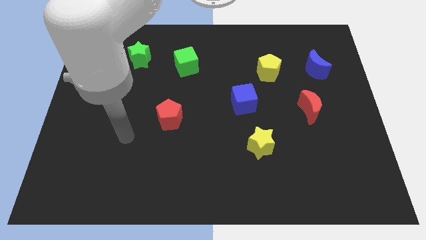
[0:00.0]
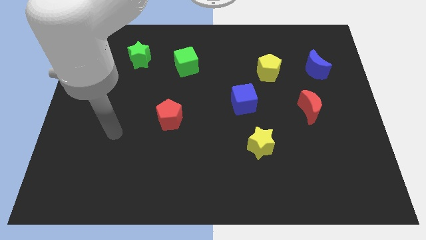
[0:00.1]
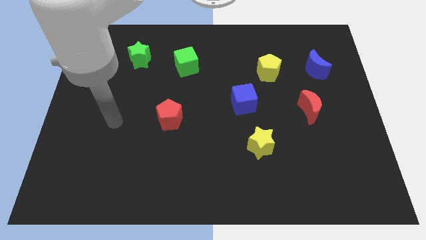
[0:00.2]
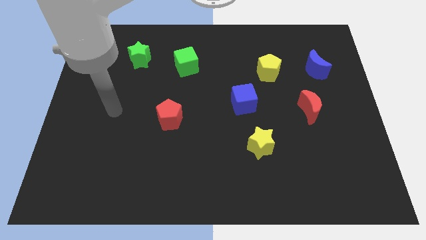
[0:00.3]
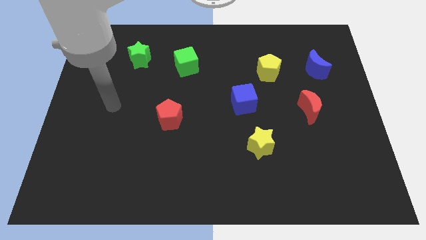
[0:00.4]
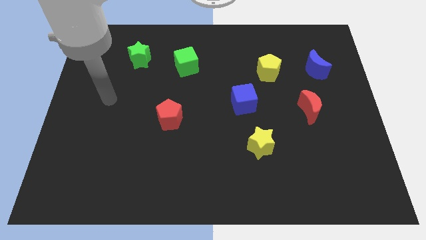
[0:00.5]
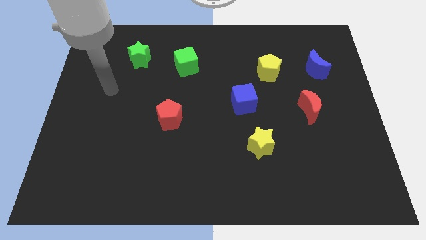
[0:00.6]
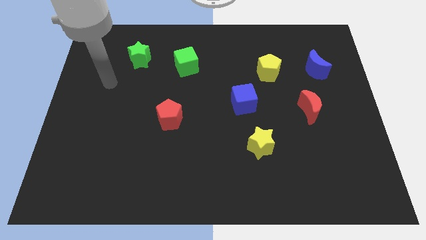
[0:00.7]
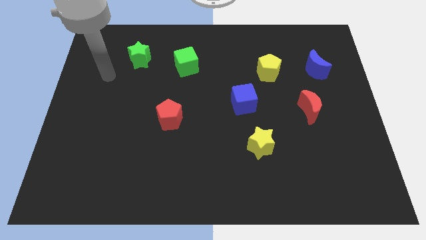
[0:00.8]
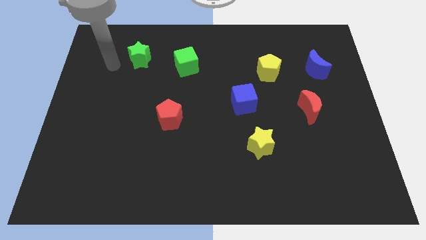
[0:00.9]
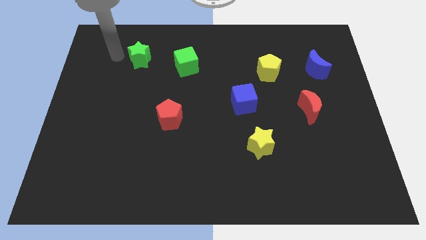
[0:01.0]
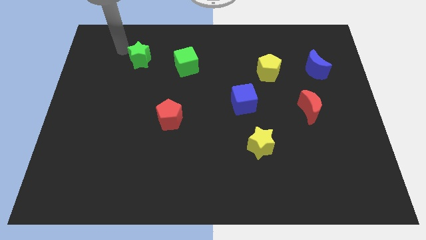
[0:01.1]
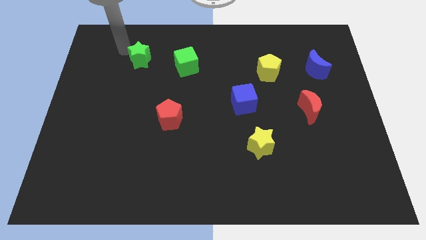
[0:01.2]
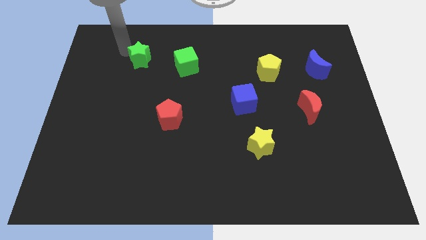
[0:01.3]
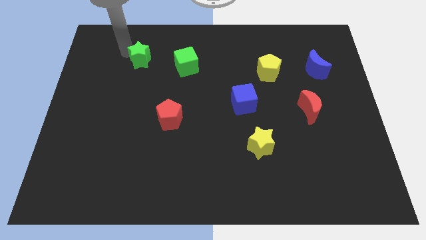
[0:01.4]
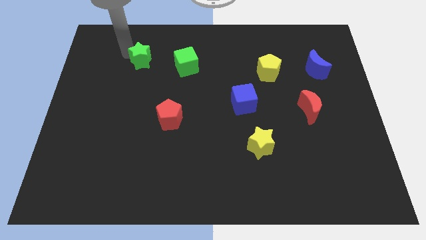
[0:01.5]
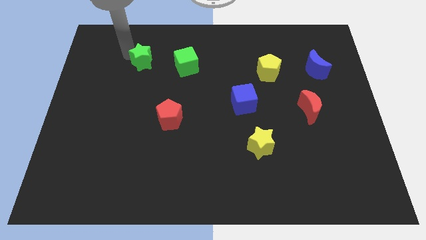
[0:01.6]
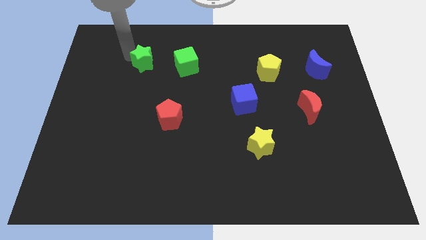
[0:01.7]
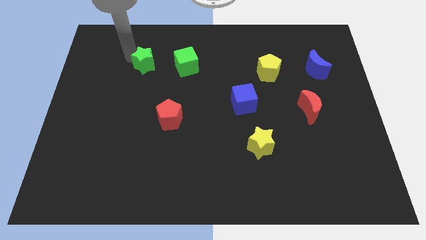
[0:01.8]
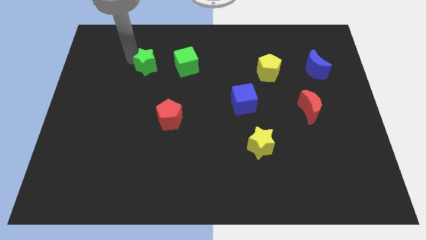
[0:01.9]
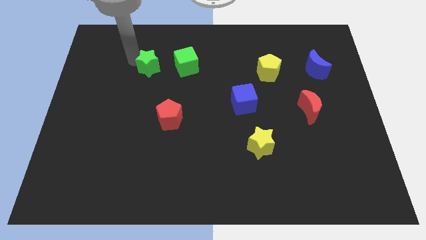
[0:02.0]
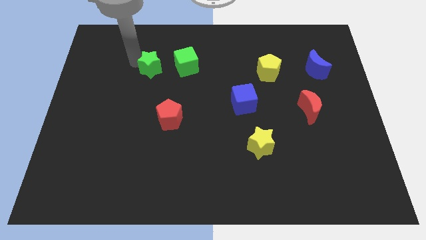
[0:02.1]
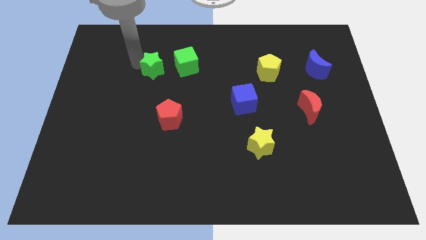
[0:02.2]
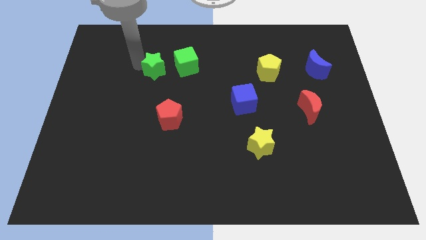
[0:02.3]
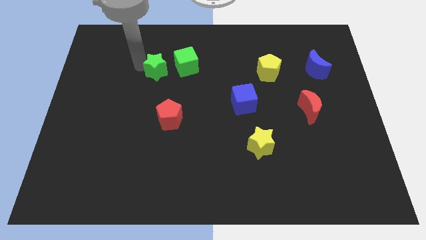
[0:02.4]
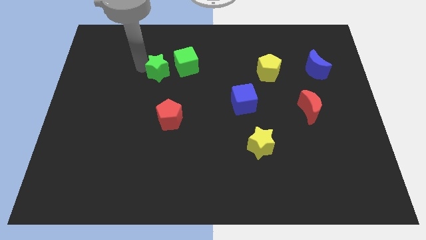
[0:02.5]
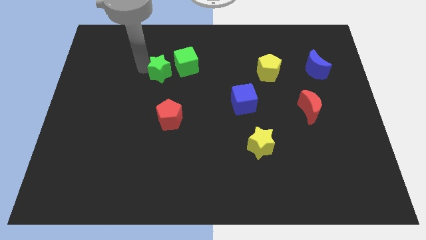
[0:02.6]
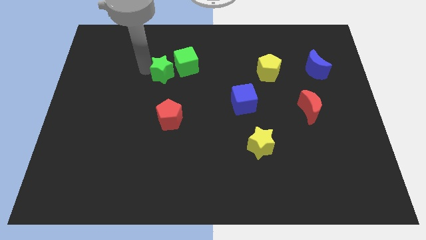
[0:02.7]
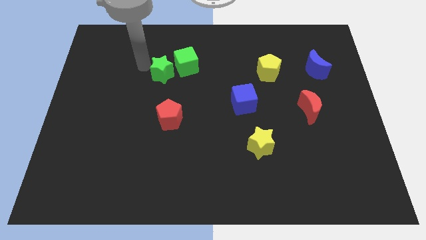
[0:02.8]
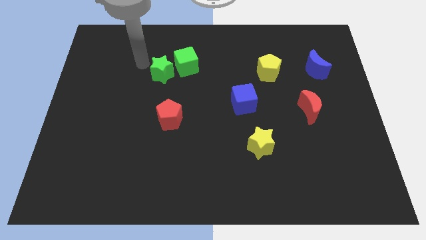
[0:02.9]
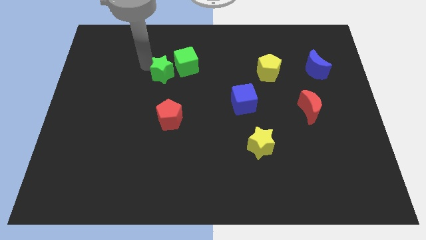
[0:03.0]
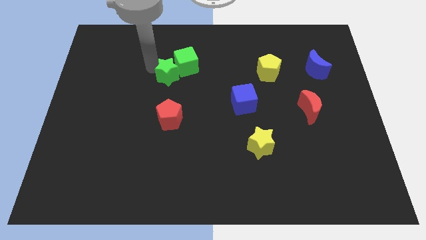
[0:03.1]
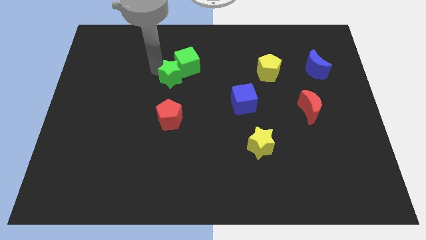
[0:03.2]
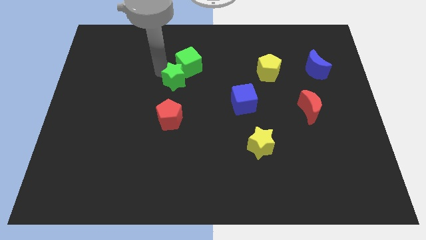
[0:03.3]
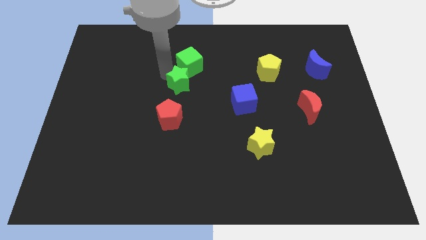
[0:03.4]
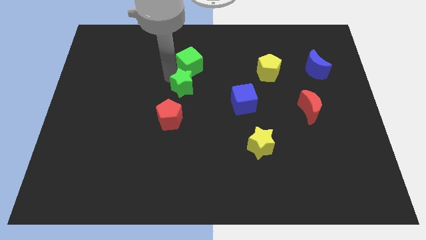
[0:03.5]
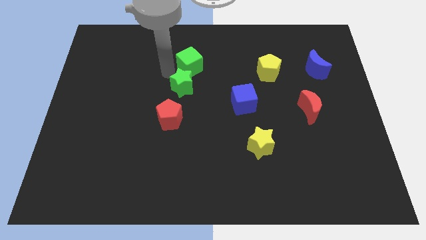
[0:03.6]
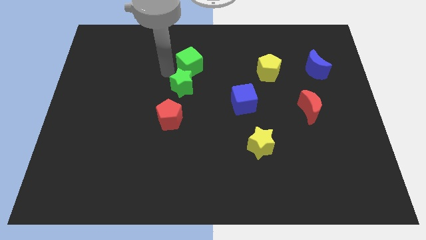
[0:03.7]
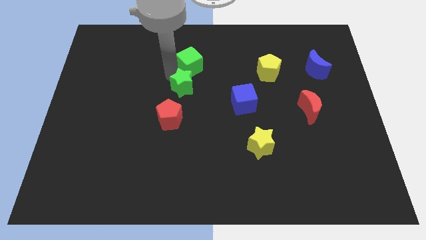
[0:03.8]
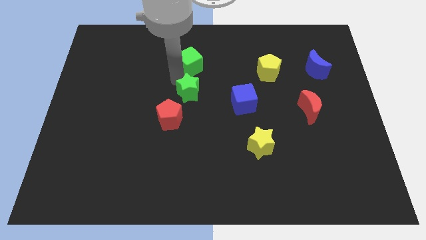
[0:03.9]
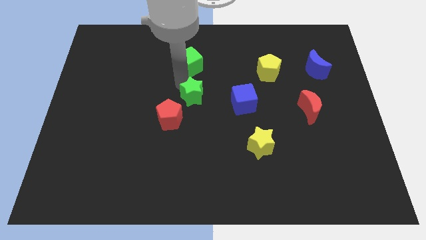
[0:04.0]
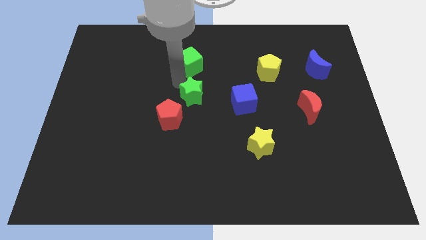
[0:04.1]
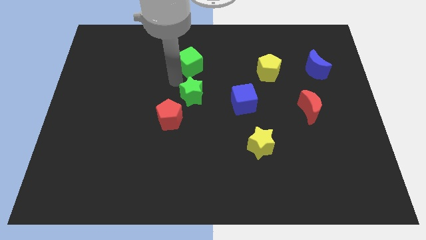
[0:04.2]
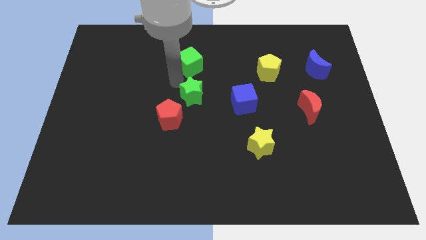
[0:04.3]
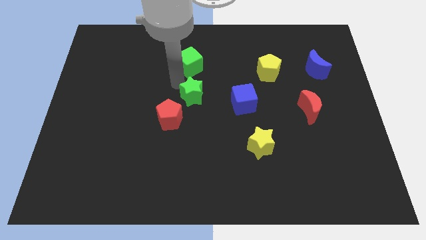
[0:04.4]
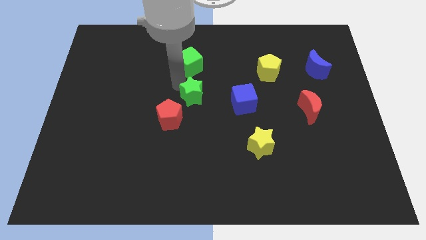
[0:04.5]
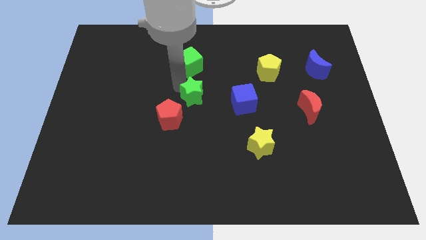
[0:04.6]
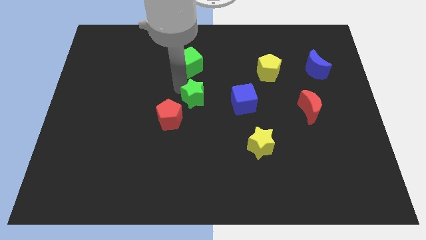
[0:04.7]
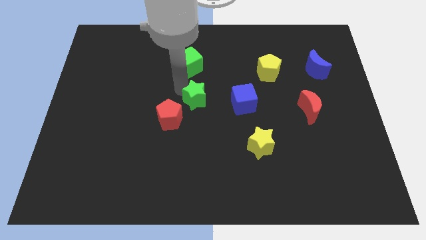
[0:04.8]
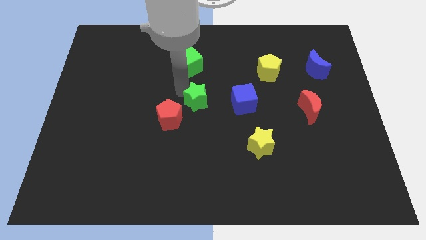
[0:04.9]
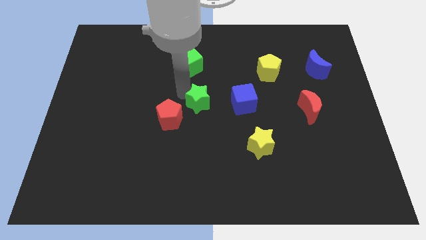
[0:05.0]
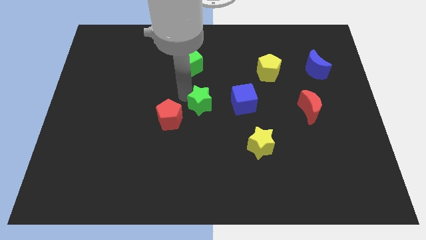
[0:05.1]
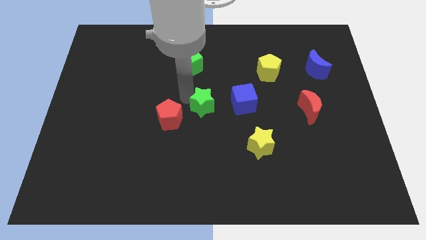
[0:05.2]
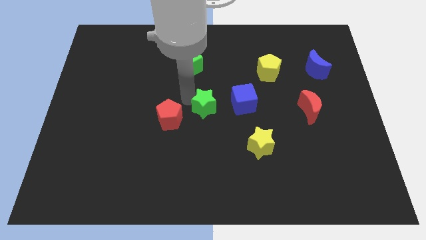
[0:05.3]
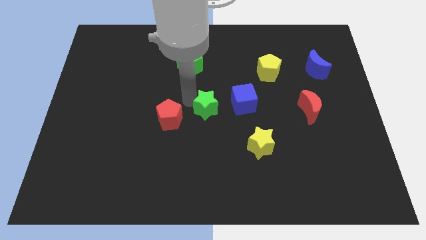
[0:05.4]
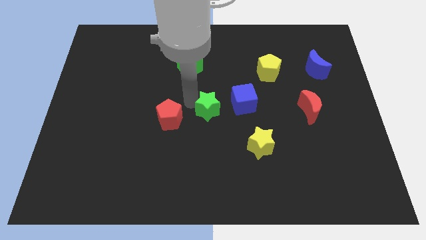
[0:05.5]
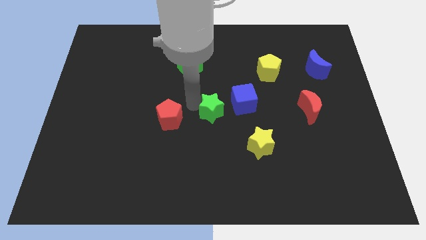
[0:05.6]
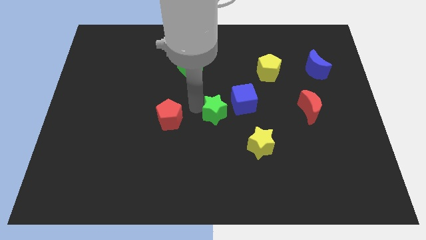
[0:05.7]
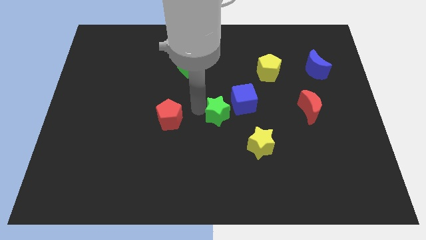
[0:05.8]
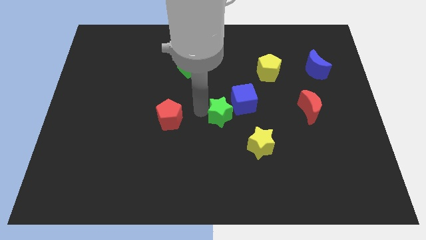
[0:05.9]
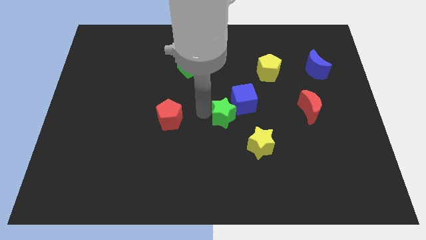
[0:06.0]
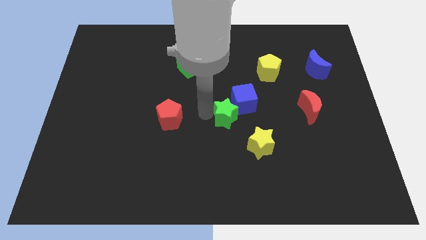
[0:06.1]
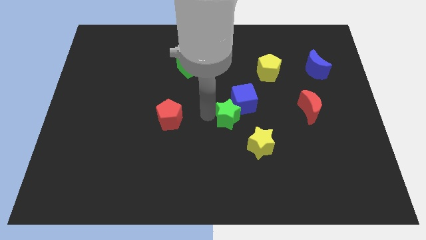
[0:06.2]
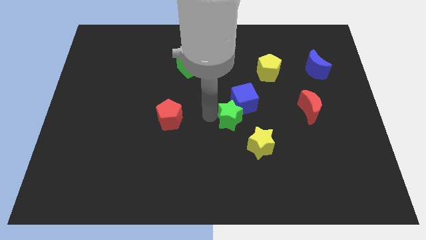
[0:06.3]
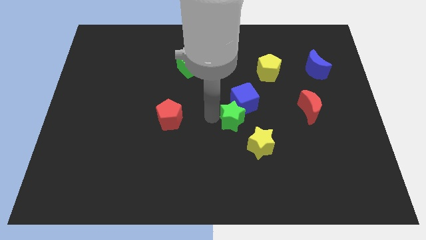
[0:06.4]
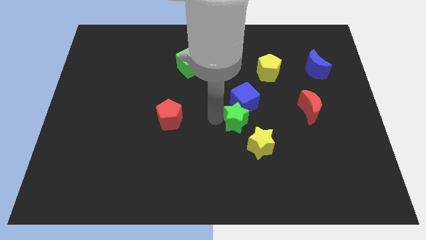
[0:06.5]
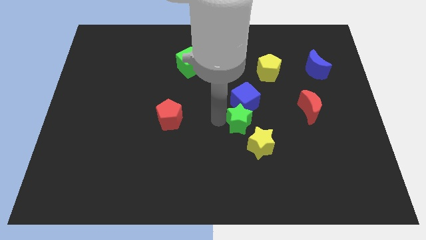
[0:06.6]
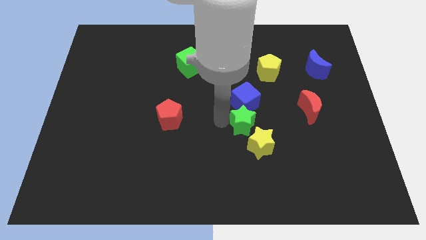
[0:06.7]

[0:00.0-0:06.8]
push the green star diagonally down and to the right of the blue cube

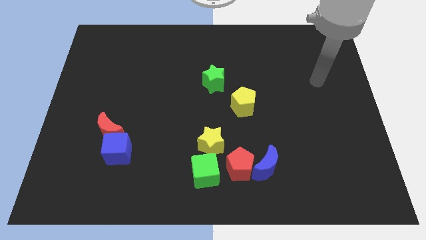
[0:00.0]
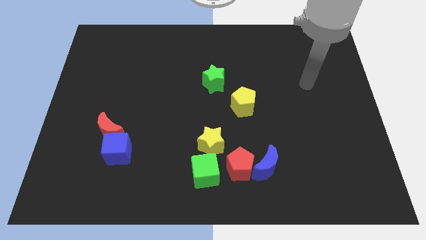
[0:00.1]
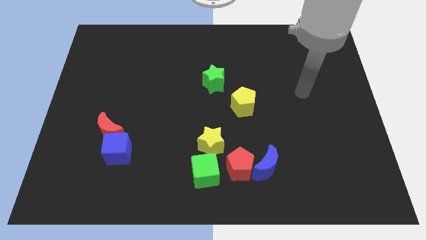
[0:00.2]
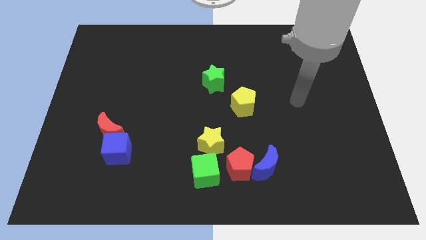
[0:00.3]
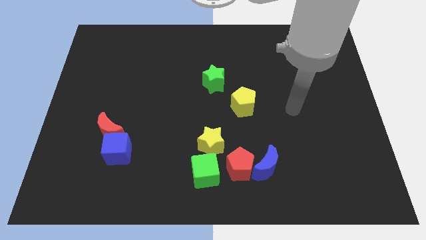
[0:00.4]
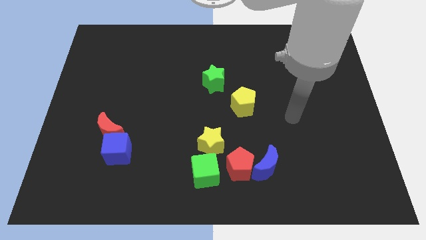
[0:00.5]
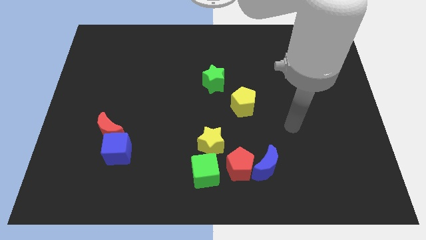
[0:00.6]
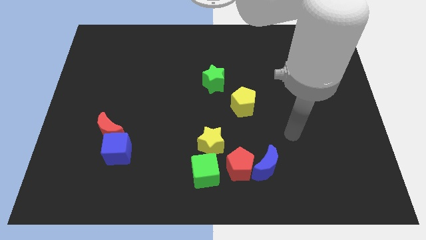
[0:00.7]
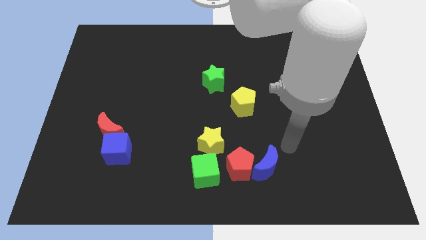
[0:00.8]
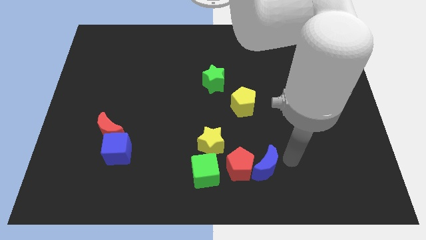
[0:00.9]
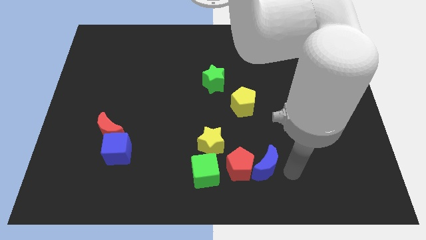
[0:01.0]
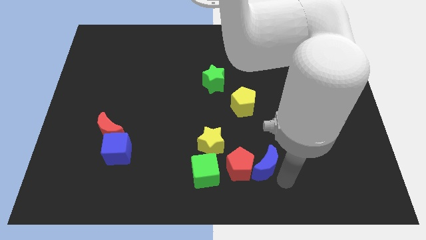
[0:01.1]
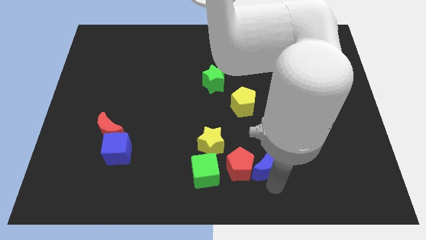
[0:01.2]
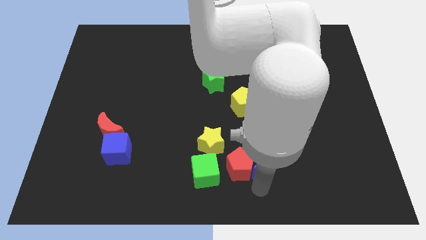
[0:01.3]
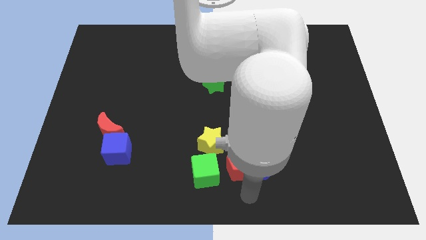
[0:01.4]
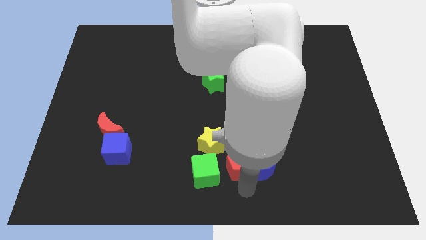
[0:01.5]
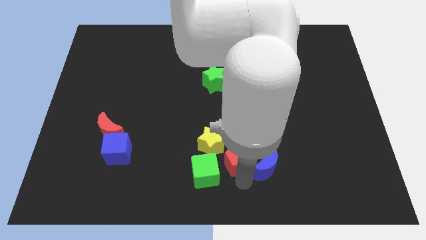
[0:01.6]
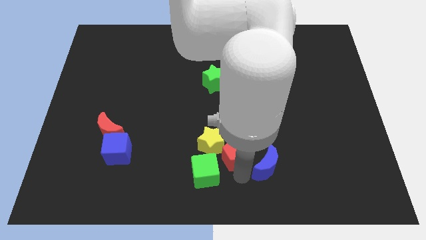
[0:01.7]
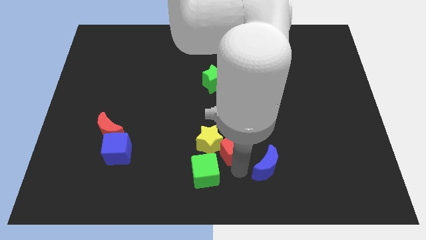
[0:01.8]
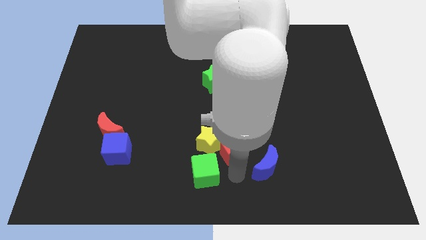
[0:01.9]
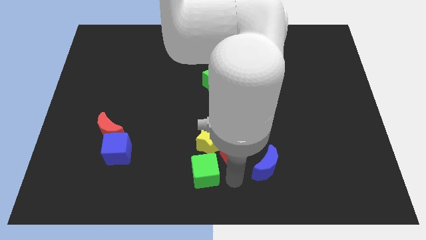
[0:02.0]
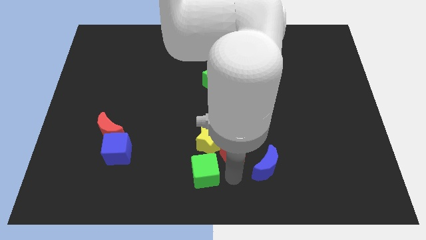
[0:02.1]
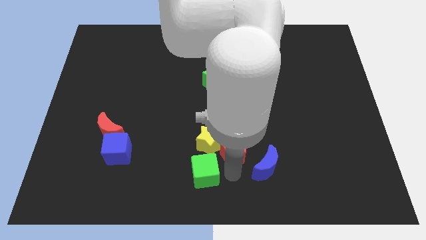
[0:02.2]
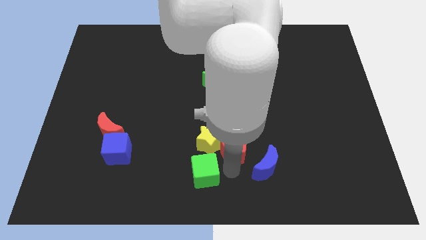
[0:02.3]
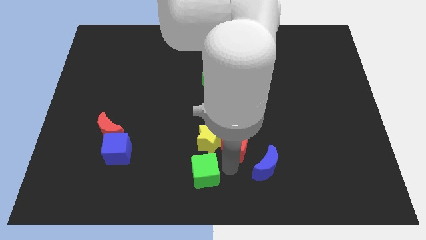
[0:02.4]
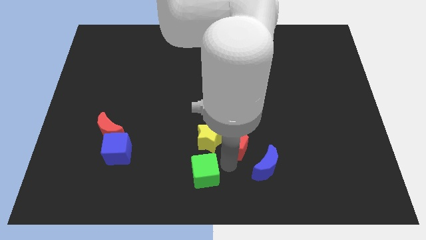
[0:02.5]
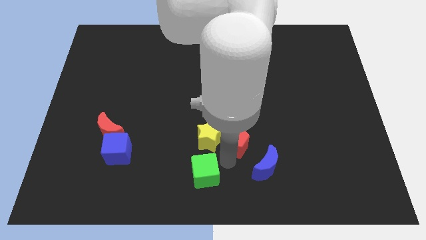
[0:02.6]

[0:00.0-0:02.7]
slide the red pentagon to the top right side of the yellow star
